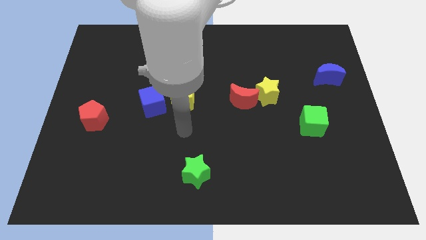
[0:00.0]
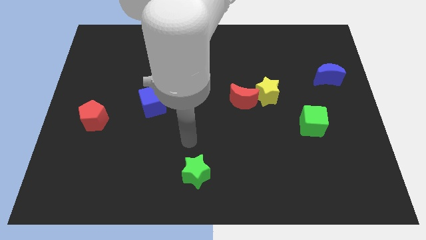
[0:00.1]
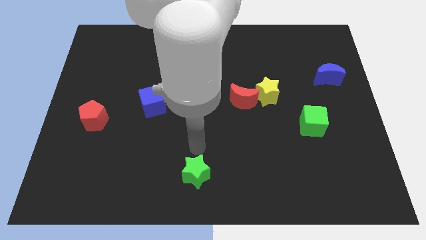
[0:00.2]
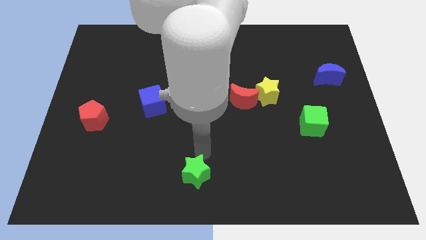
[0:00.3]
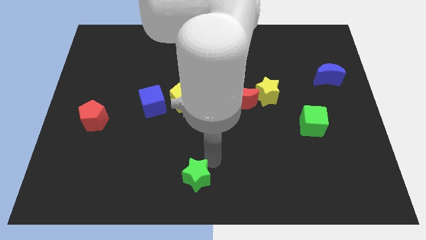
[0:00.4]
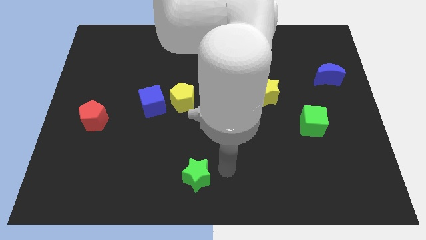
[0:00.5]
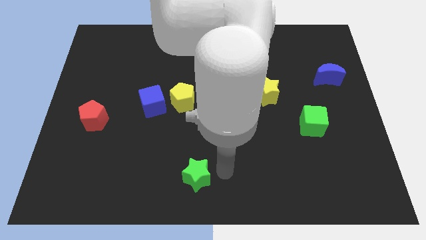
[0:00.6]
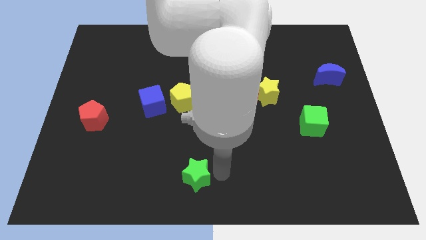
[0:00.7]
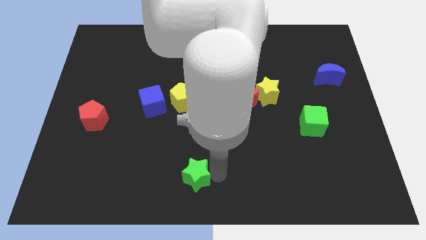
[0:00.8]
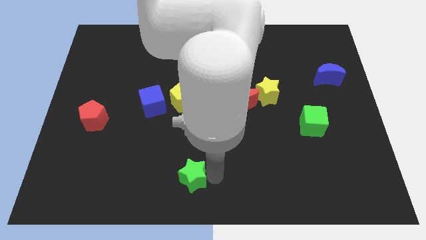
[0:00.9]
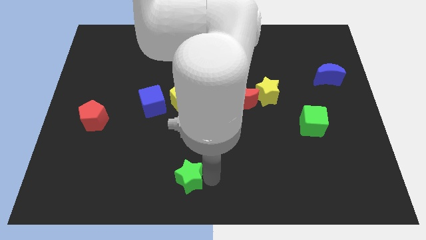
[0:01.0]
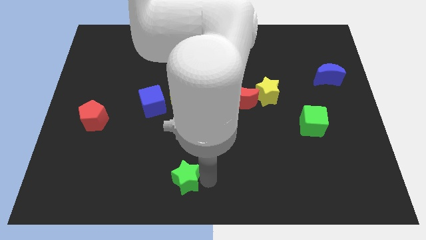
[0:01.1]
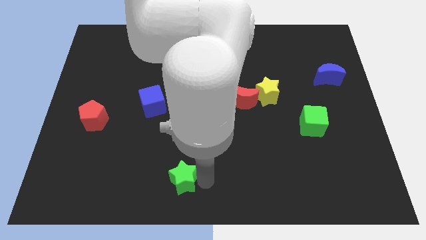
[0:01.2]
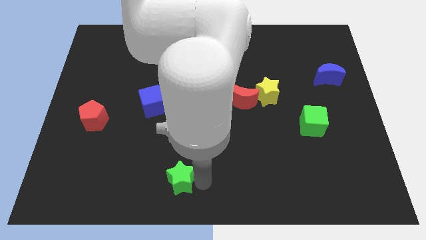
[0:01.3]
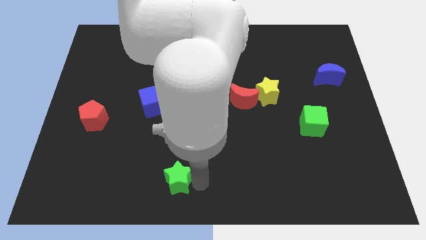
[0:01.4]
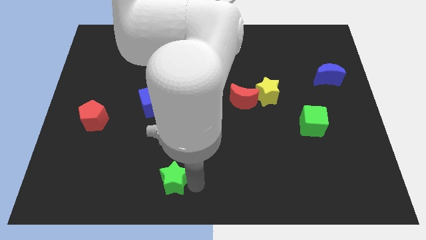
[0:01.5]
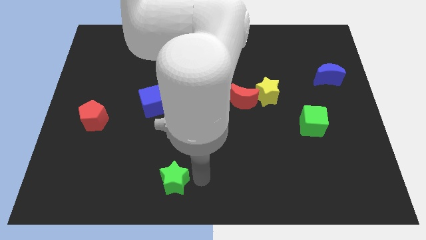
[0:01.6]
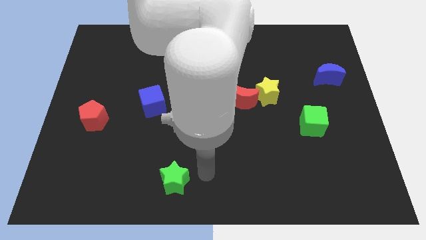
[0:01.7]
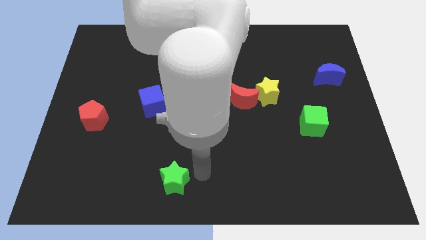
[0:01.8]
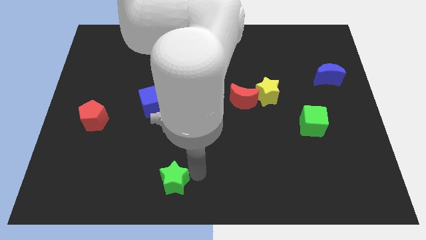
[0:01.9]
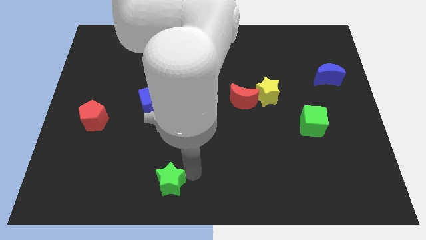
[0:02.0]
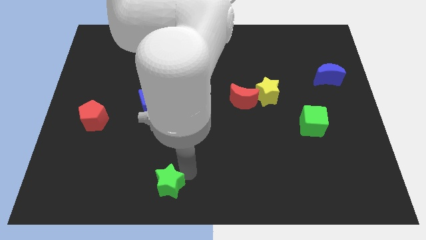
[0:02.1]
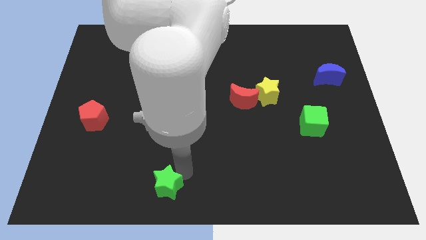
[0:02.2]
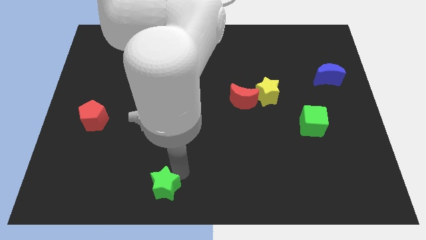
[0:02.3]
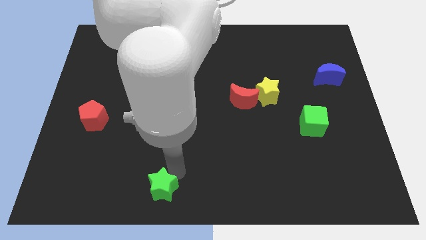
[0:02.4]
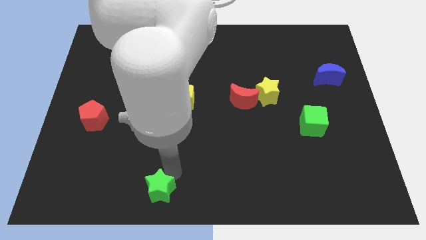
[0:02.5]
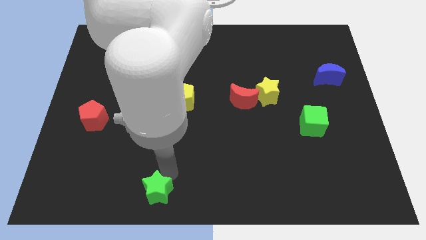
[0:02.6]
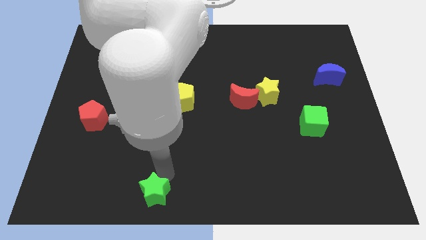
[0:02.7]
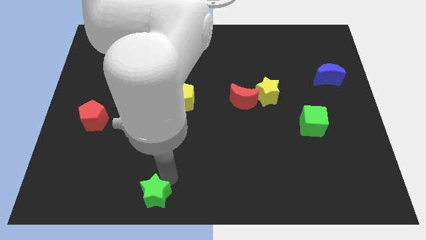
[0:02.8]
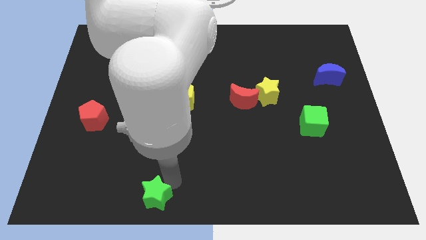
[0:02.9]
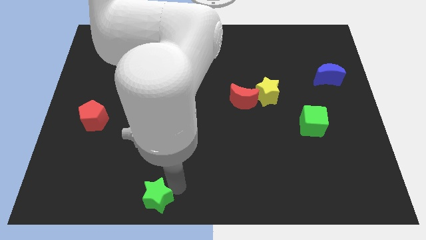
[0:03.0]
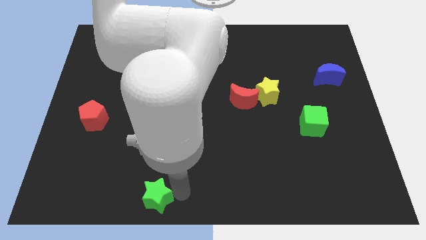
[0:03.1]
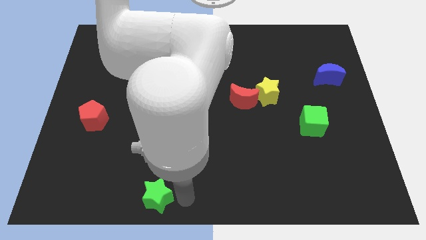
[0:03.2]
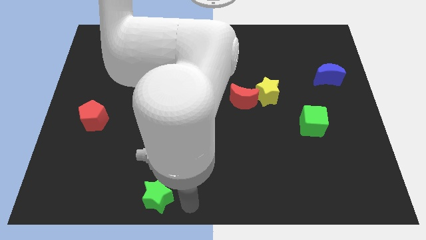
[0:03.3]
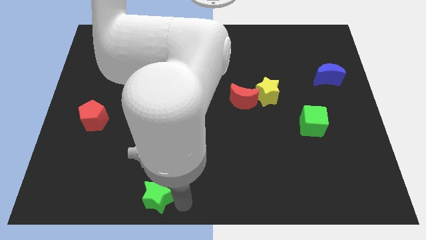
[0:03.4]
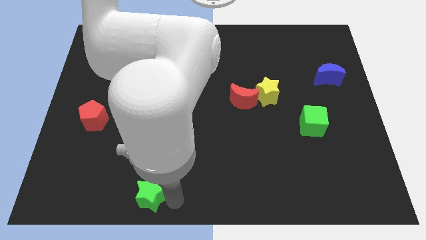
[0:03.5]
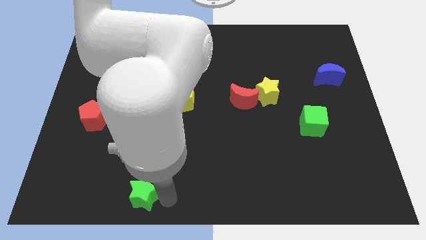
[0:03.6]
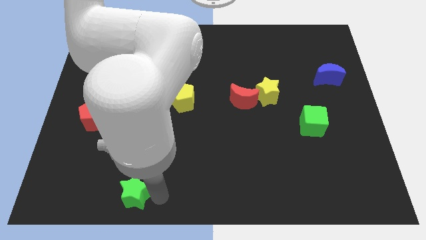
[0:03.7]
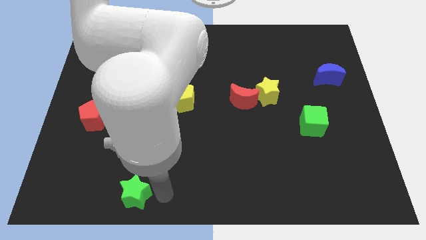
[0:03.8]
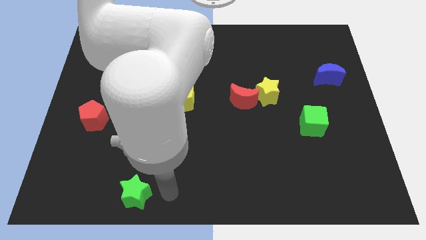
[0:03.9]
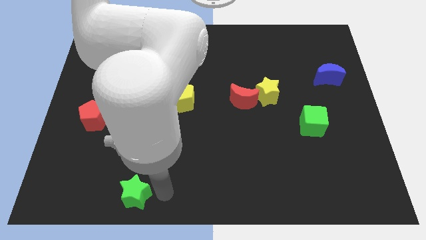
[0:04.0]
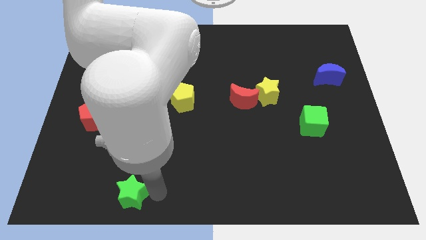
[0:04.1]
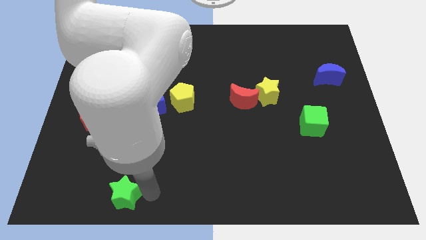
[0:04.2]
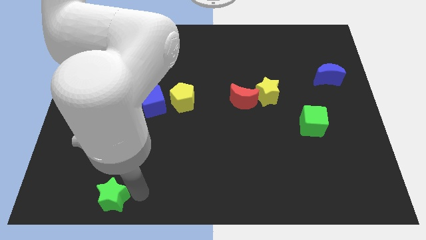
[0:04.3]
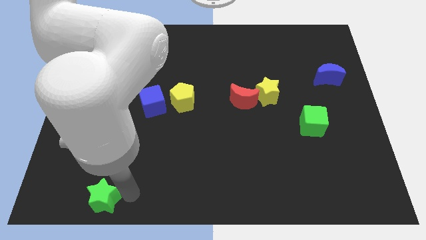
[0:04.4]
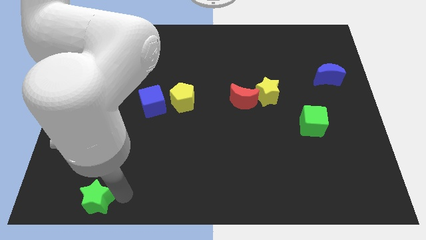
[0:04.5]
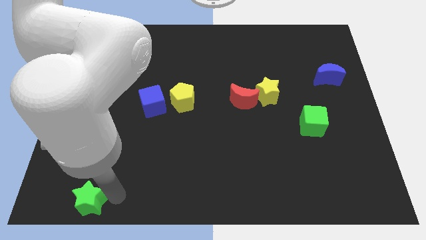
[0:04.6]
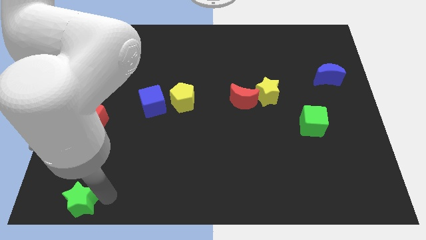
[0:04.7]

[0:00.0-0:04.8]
push the green star to the bottom left corner

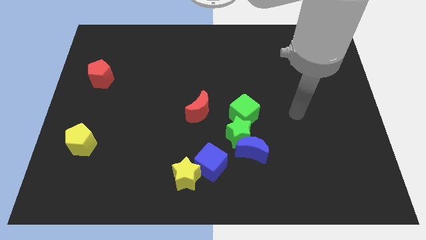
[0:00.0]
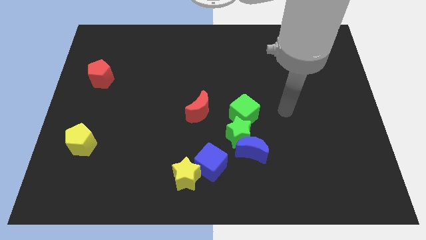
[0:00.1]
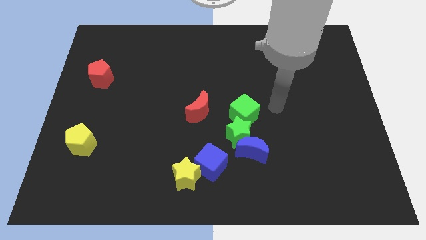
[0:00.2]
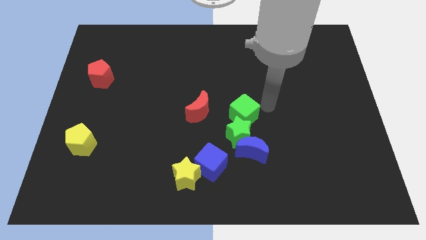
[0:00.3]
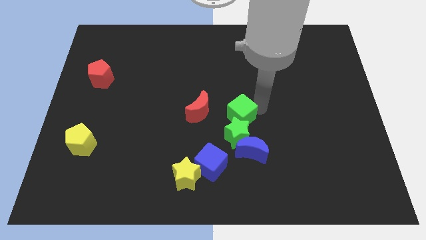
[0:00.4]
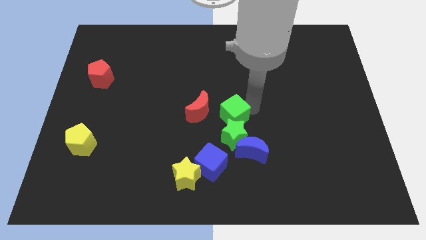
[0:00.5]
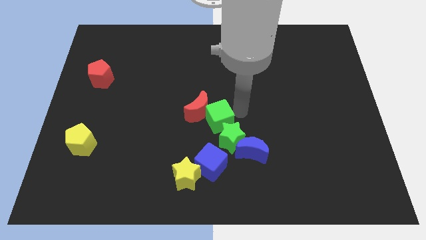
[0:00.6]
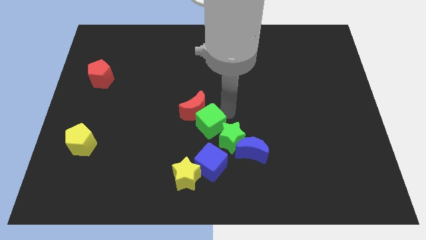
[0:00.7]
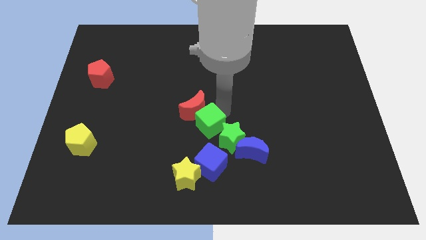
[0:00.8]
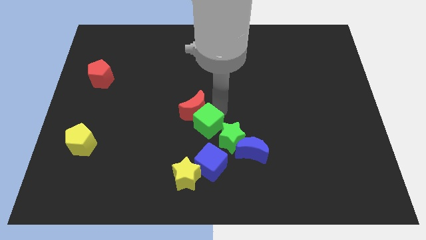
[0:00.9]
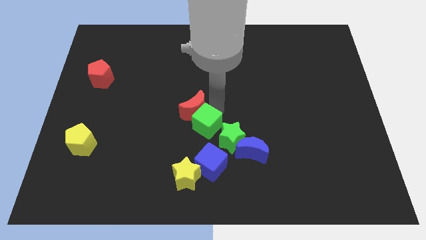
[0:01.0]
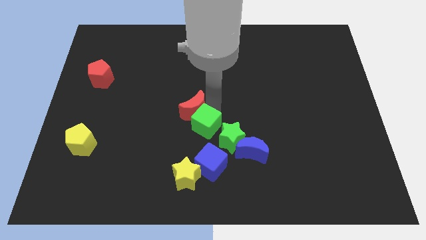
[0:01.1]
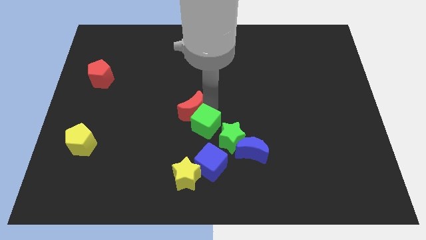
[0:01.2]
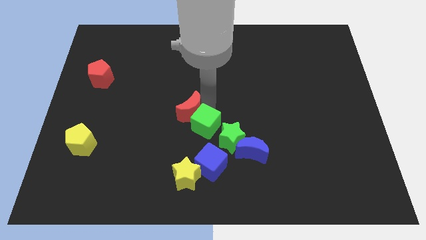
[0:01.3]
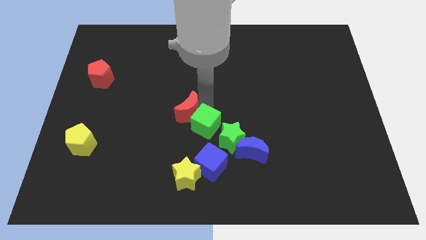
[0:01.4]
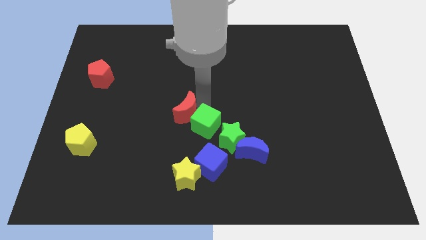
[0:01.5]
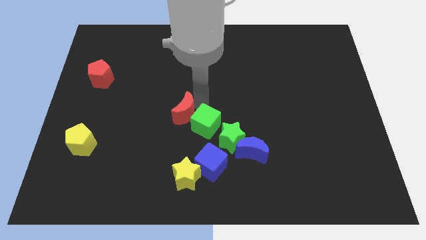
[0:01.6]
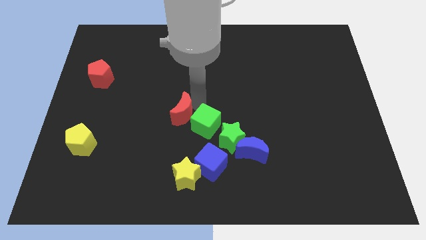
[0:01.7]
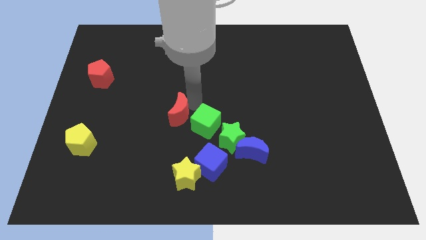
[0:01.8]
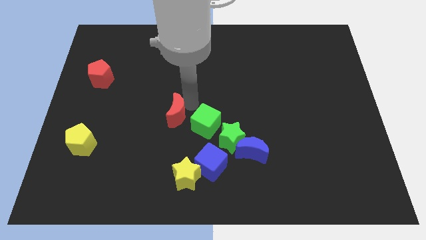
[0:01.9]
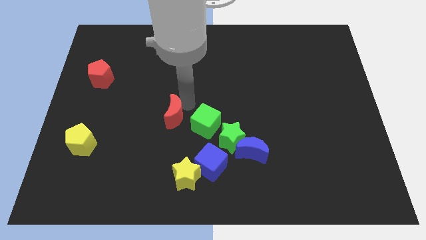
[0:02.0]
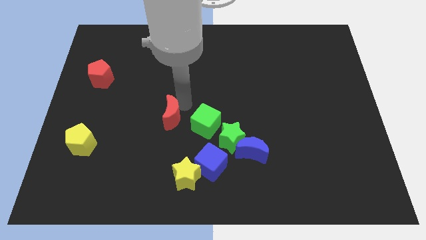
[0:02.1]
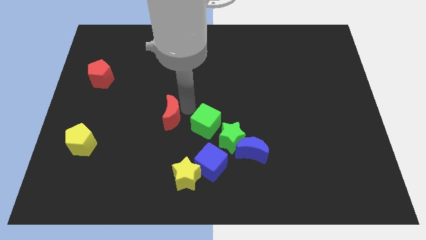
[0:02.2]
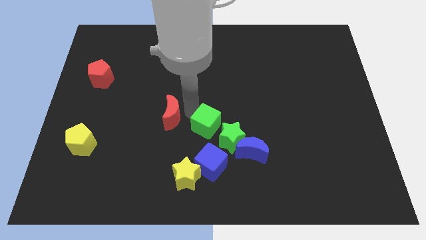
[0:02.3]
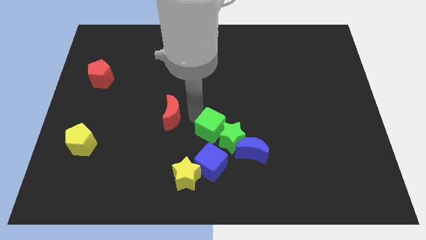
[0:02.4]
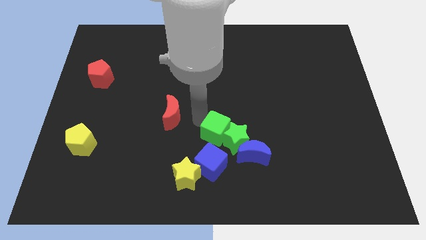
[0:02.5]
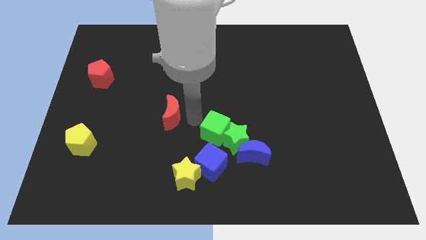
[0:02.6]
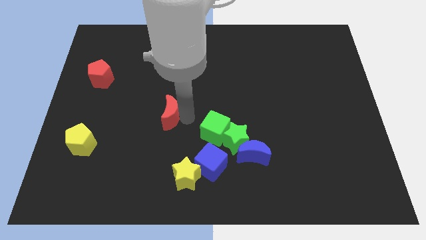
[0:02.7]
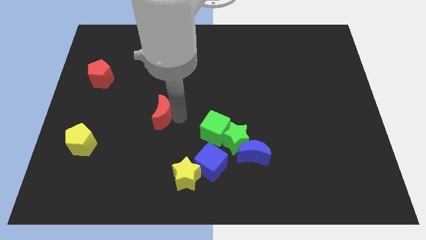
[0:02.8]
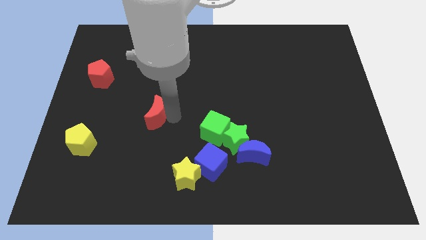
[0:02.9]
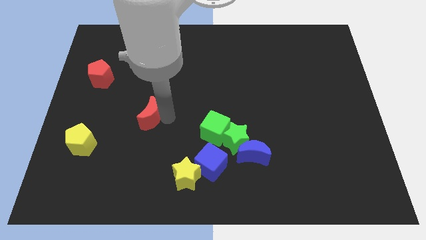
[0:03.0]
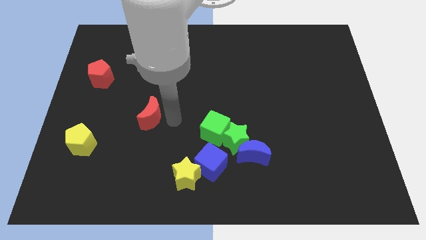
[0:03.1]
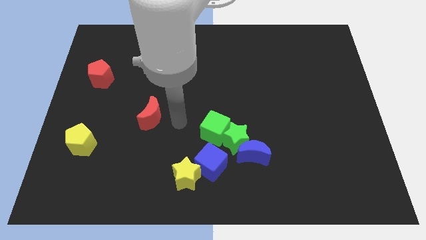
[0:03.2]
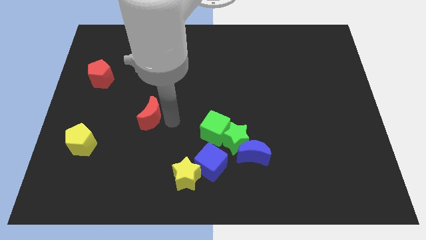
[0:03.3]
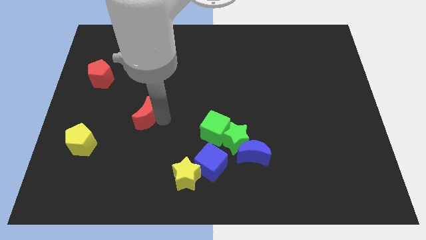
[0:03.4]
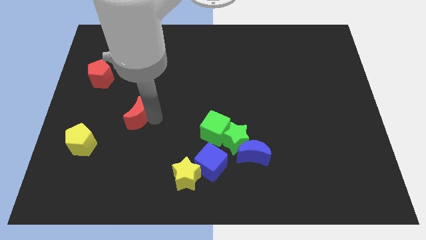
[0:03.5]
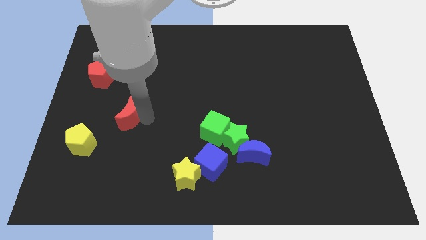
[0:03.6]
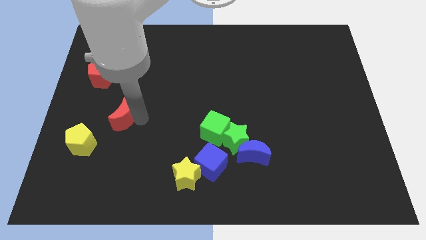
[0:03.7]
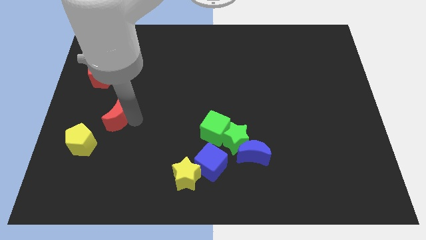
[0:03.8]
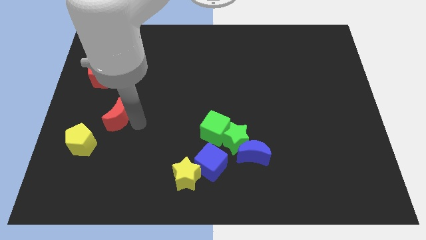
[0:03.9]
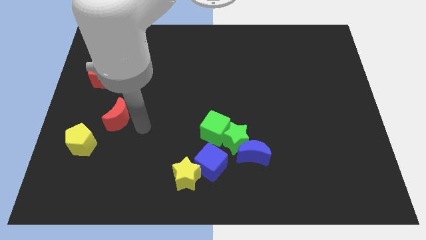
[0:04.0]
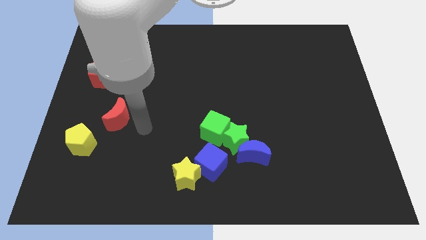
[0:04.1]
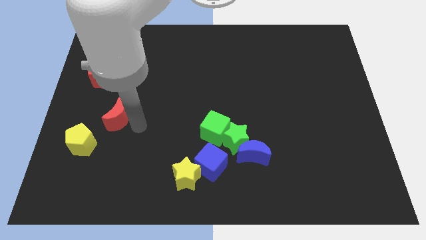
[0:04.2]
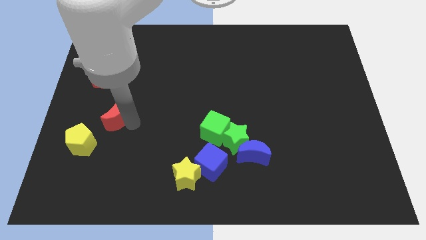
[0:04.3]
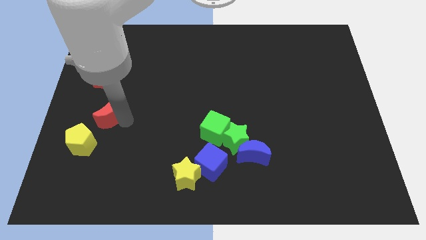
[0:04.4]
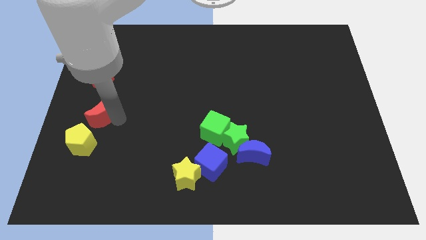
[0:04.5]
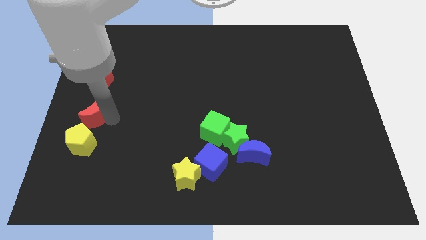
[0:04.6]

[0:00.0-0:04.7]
slide the red moon to the center left
